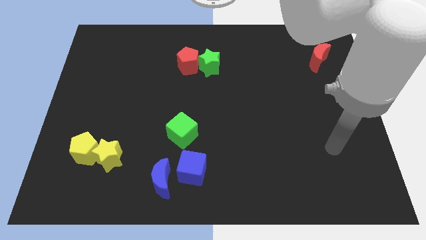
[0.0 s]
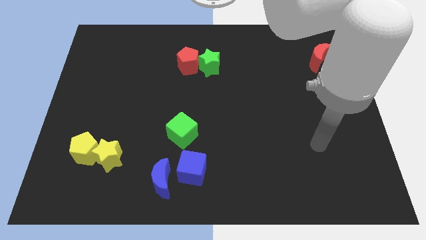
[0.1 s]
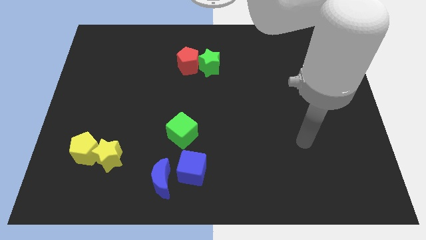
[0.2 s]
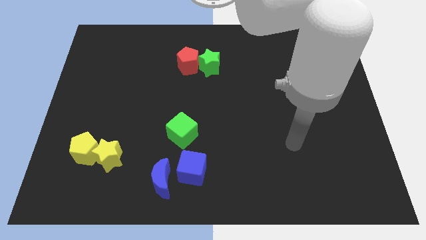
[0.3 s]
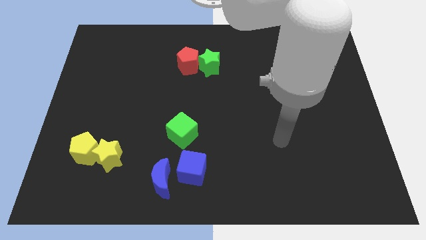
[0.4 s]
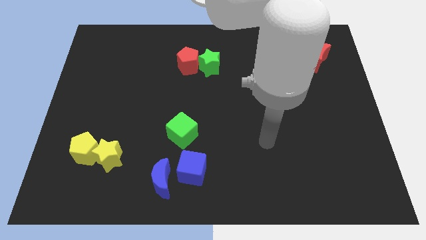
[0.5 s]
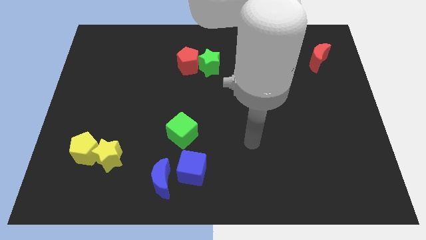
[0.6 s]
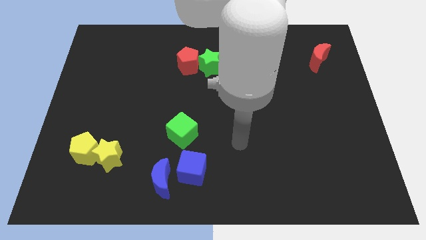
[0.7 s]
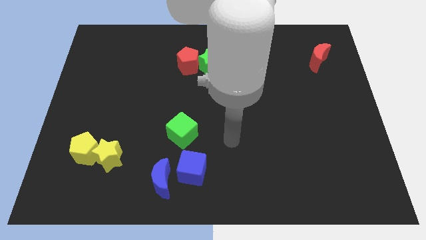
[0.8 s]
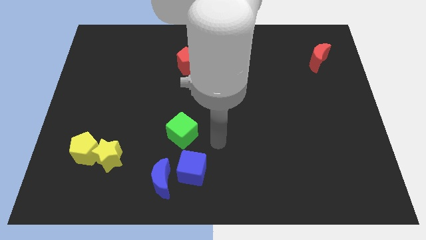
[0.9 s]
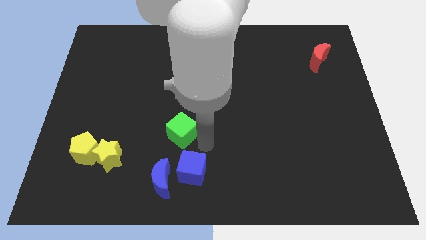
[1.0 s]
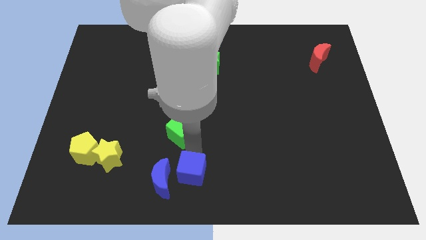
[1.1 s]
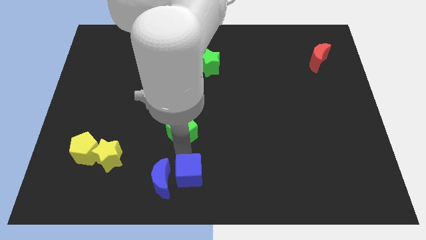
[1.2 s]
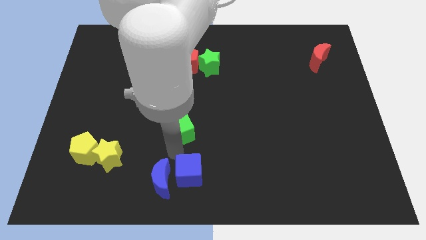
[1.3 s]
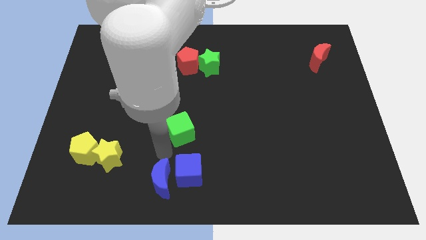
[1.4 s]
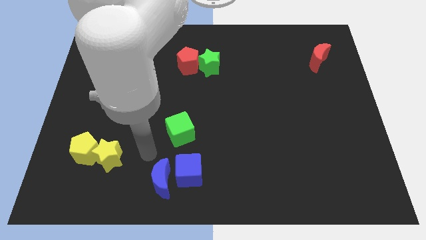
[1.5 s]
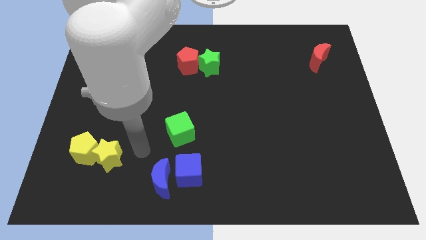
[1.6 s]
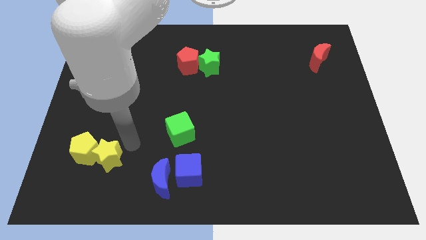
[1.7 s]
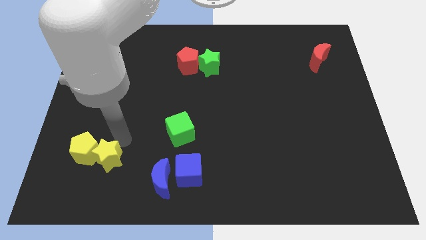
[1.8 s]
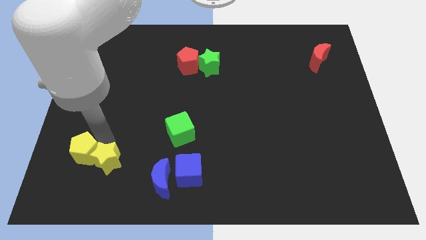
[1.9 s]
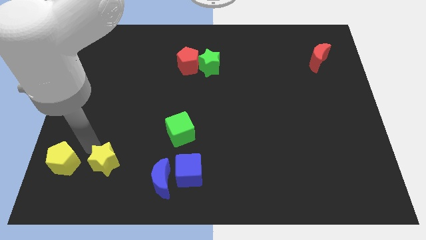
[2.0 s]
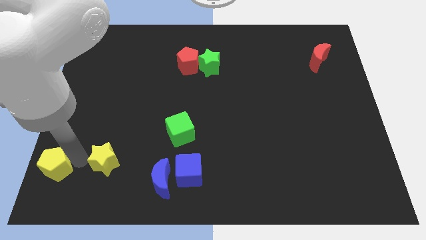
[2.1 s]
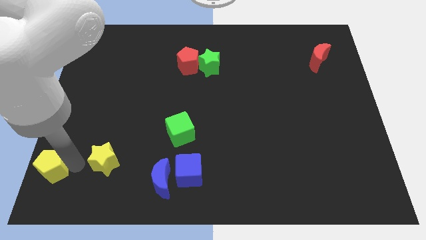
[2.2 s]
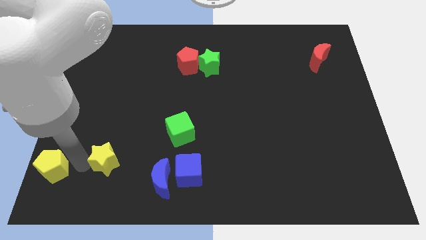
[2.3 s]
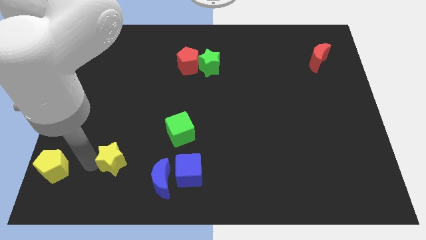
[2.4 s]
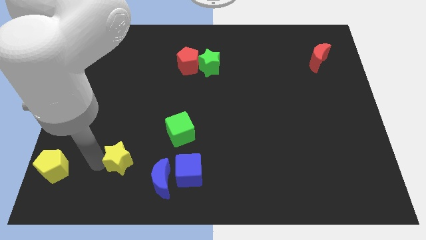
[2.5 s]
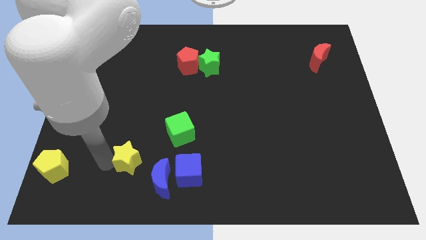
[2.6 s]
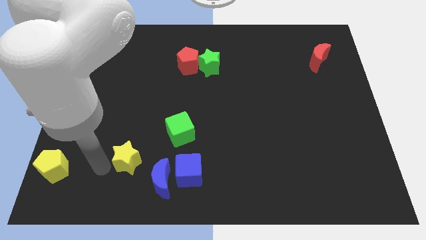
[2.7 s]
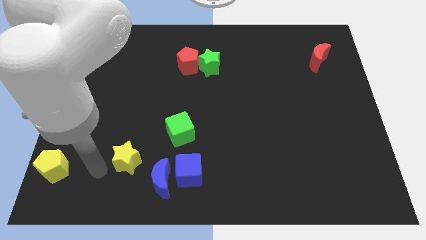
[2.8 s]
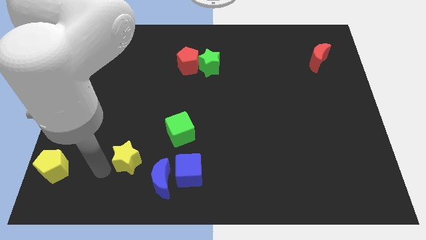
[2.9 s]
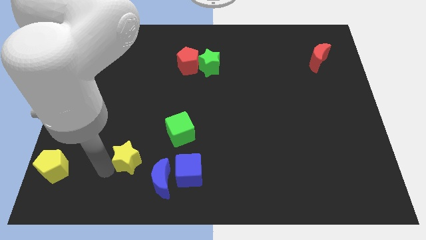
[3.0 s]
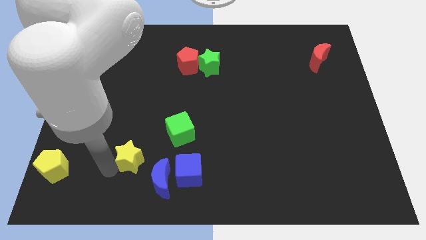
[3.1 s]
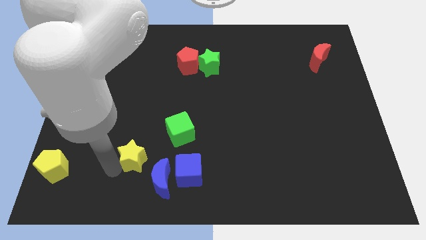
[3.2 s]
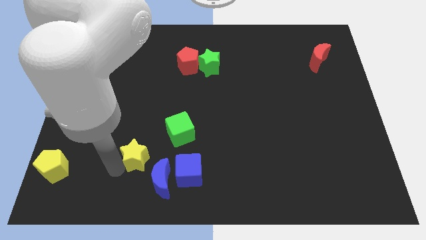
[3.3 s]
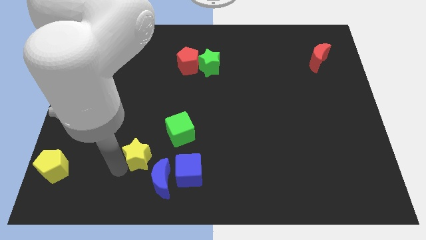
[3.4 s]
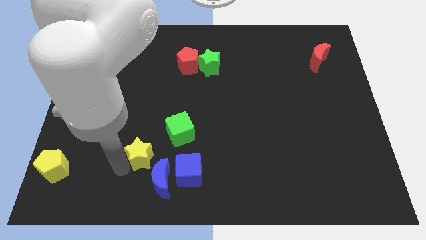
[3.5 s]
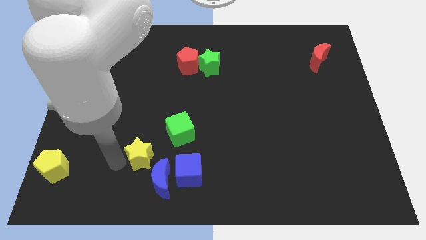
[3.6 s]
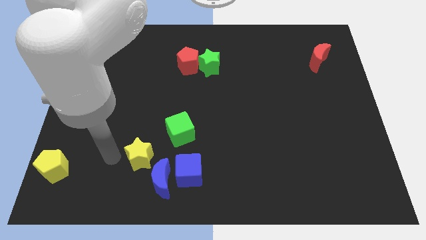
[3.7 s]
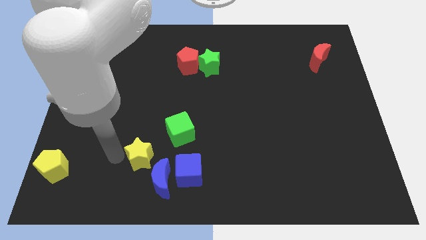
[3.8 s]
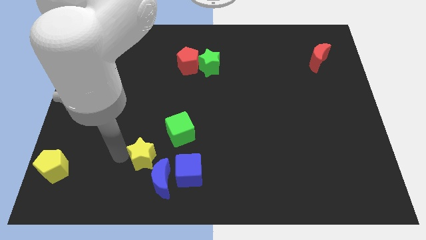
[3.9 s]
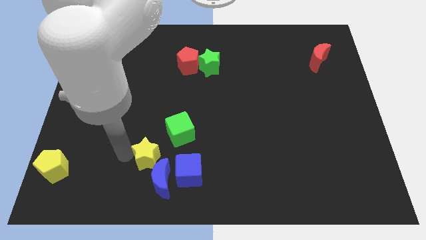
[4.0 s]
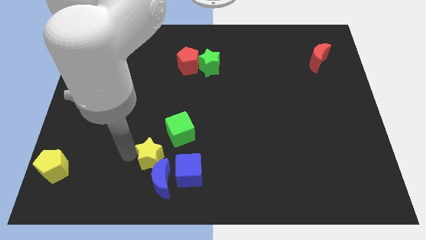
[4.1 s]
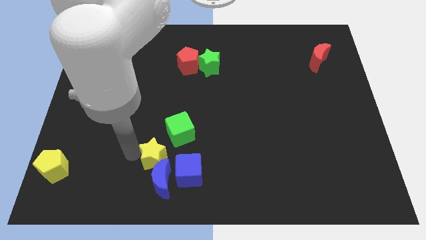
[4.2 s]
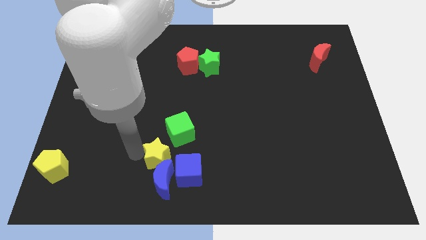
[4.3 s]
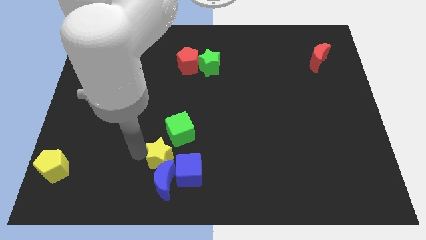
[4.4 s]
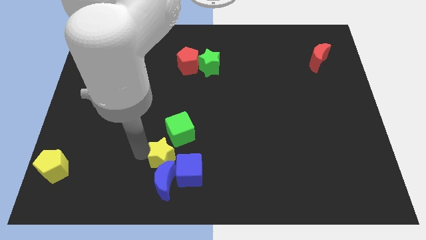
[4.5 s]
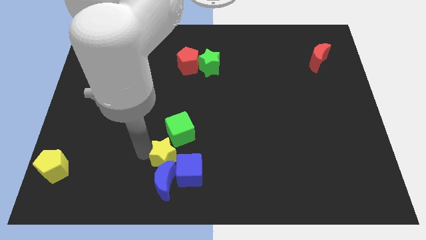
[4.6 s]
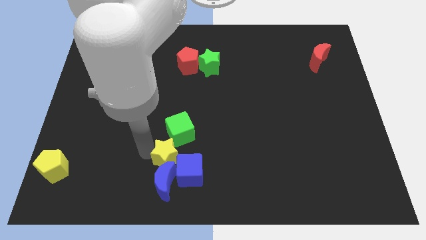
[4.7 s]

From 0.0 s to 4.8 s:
push the yellow star towards the blue cube

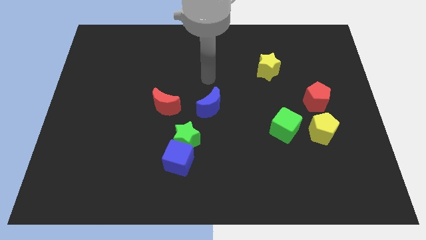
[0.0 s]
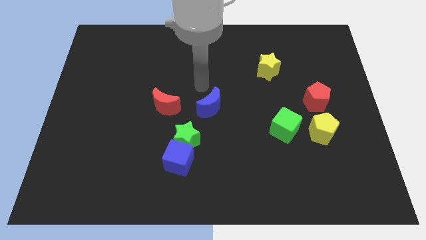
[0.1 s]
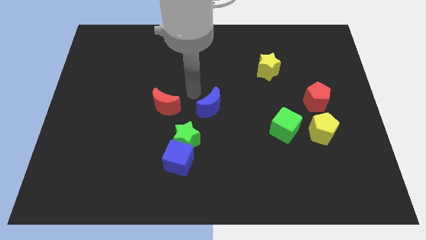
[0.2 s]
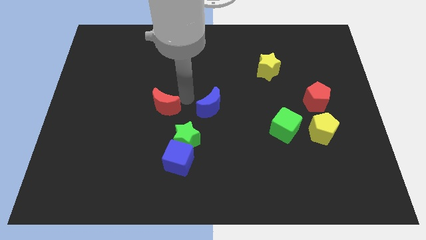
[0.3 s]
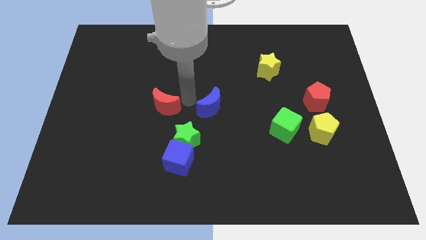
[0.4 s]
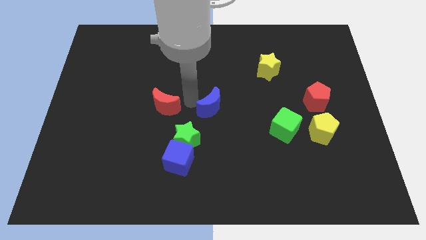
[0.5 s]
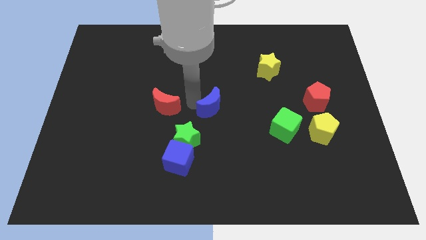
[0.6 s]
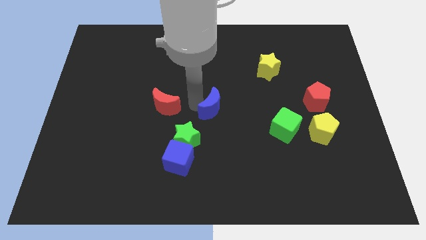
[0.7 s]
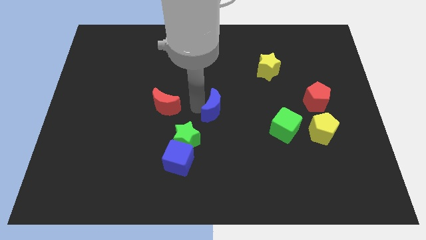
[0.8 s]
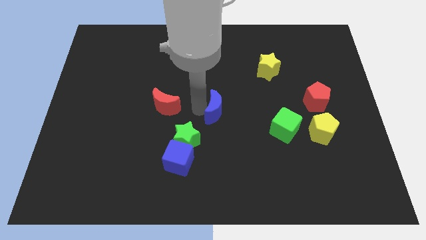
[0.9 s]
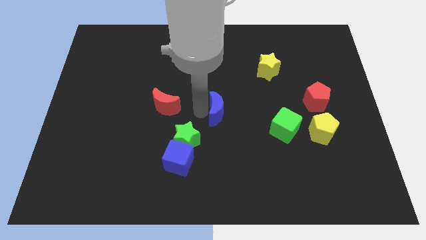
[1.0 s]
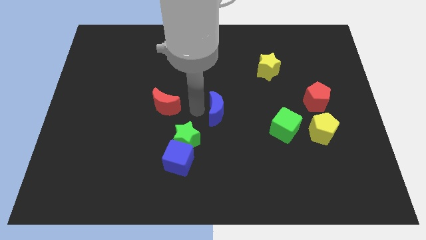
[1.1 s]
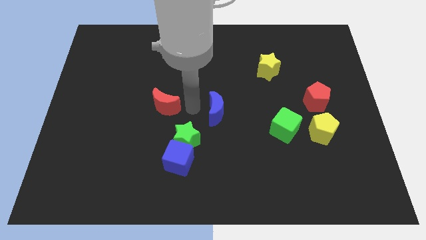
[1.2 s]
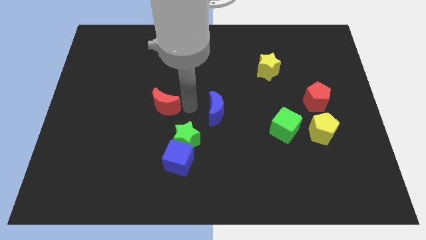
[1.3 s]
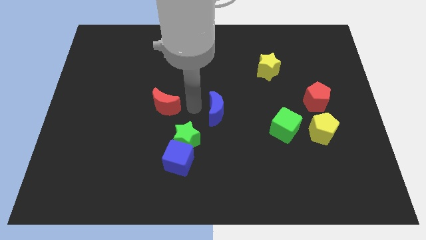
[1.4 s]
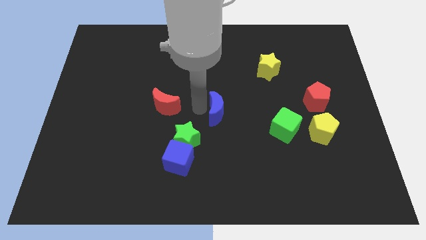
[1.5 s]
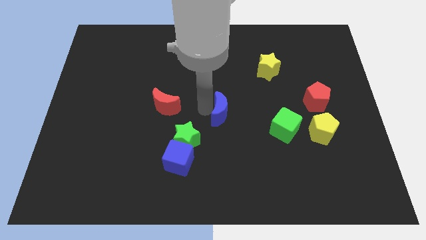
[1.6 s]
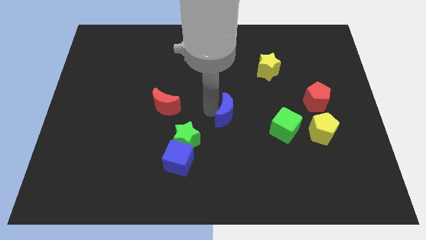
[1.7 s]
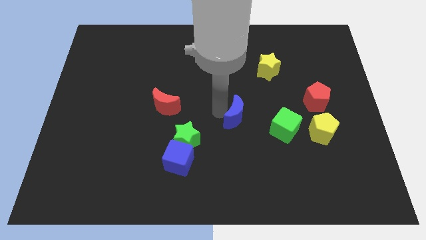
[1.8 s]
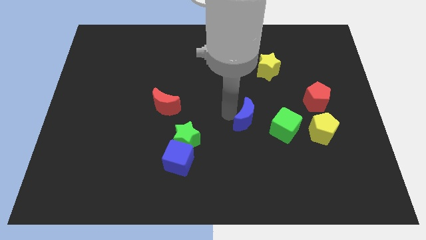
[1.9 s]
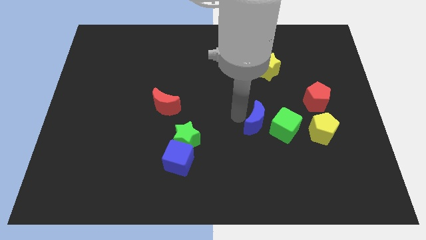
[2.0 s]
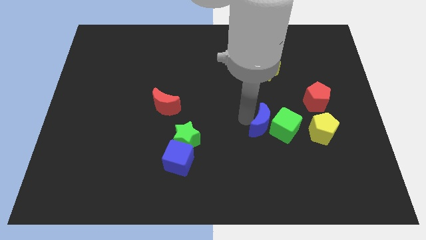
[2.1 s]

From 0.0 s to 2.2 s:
slide the blue moon towards the green cube

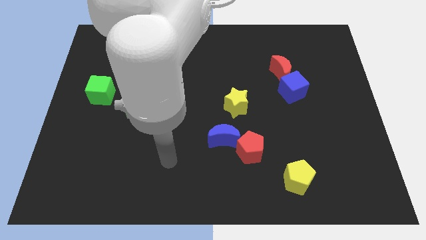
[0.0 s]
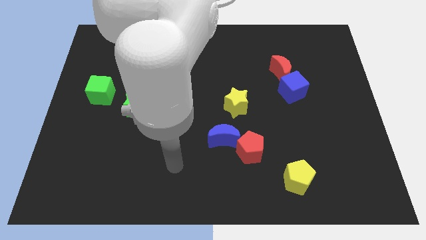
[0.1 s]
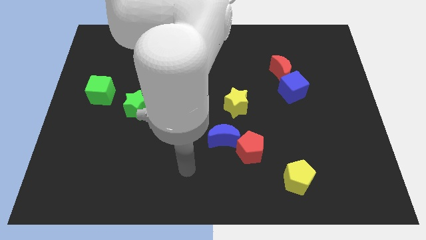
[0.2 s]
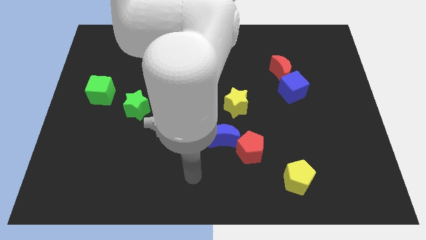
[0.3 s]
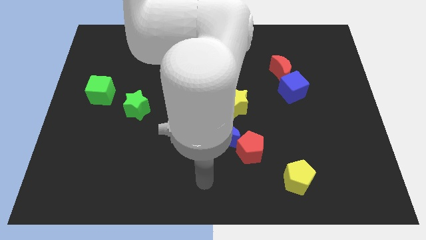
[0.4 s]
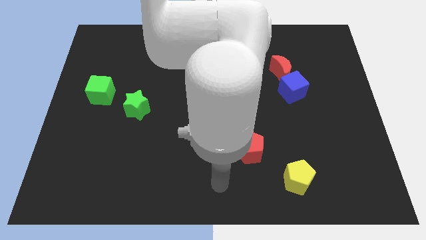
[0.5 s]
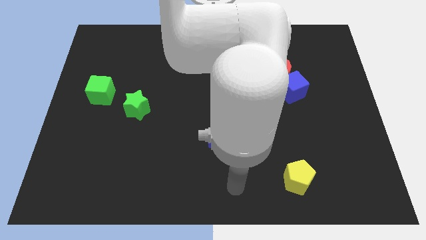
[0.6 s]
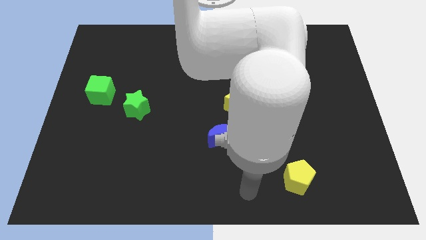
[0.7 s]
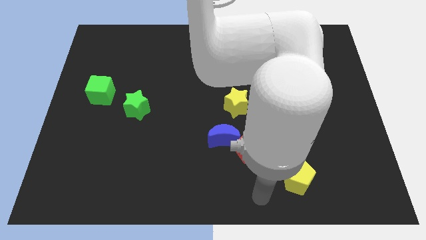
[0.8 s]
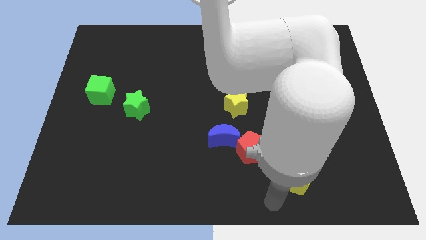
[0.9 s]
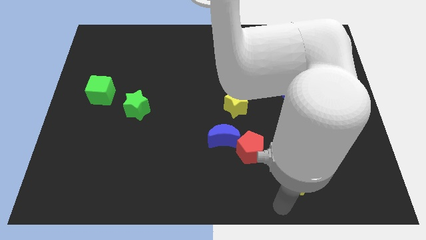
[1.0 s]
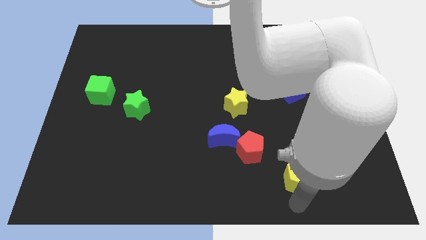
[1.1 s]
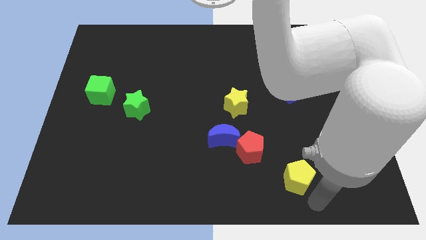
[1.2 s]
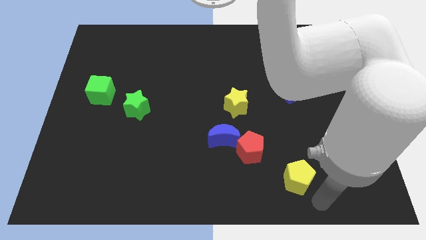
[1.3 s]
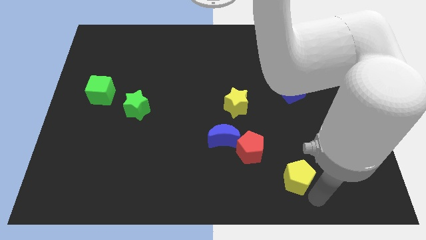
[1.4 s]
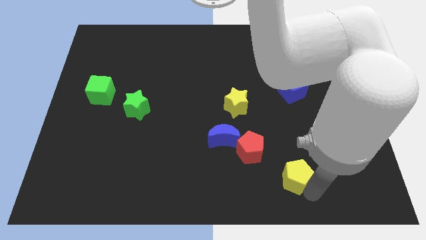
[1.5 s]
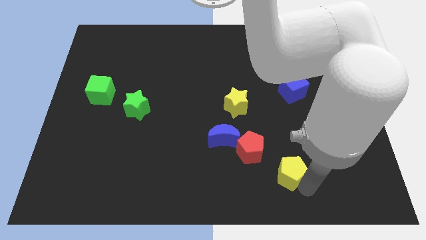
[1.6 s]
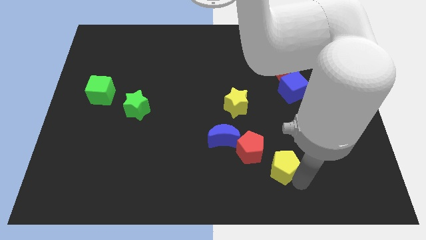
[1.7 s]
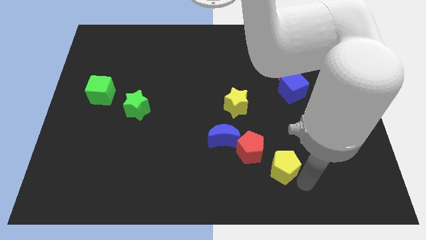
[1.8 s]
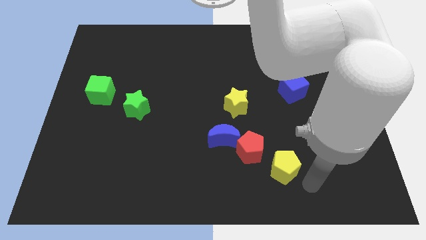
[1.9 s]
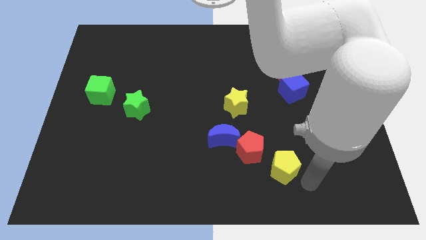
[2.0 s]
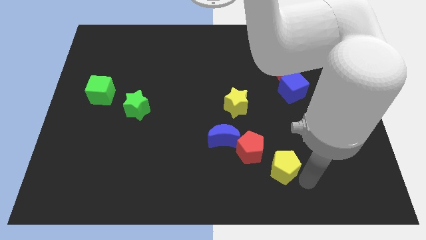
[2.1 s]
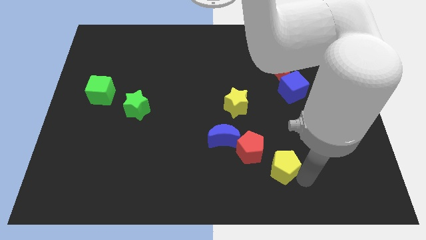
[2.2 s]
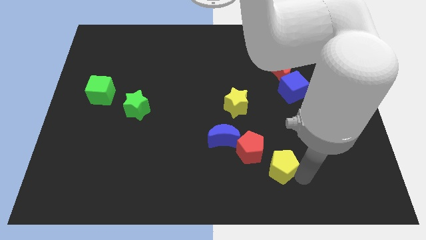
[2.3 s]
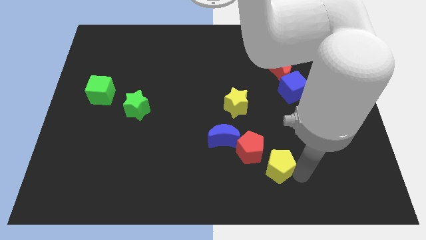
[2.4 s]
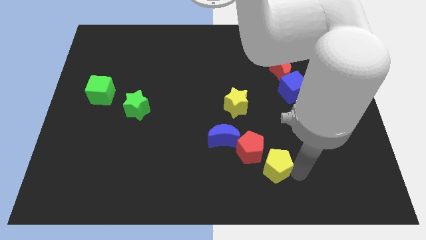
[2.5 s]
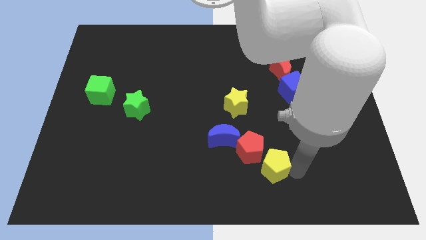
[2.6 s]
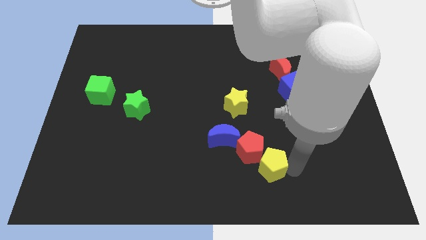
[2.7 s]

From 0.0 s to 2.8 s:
push the yellow pentagon to the red pentagon
